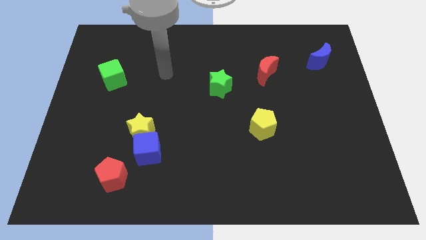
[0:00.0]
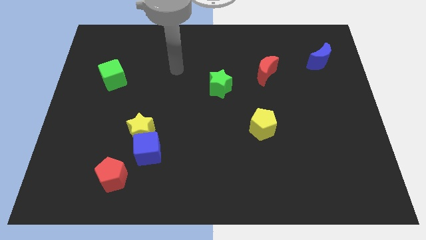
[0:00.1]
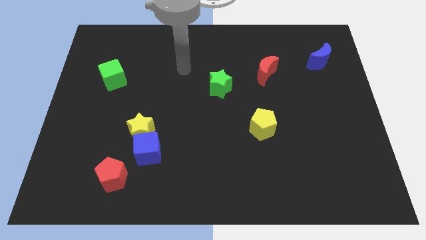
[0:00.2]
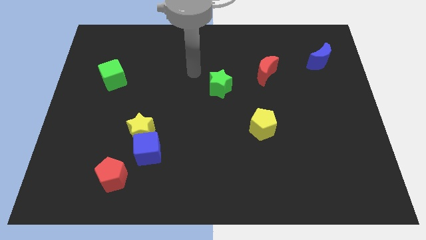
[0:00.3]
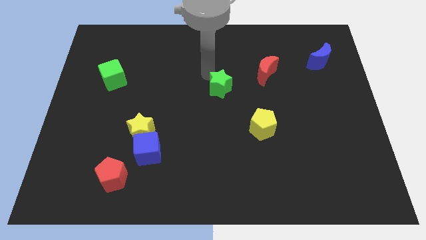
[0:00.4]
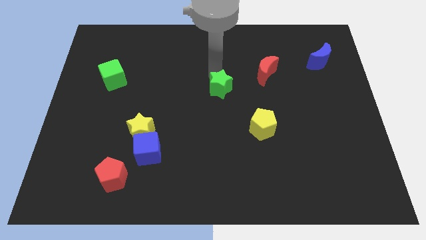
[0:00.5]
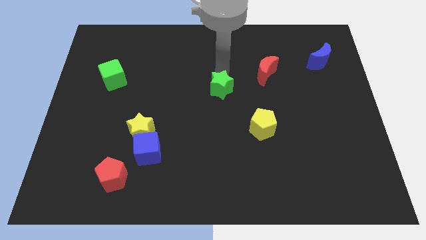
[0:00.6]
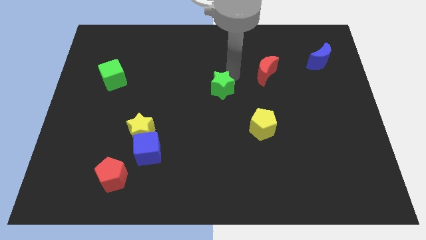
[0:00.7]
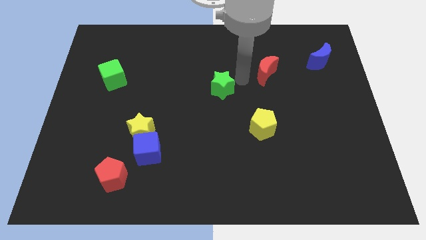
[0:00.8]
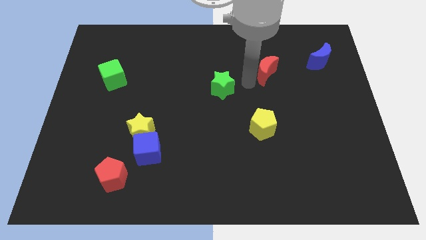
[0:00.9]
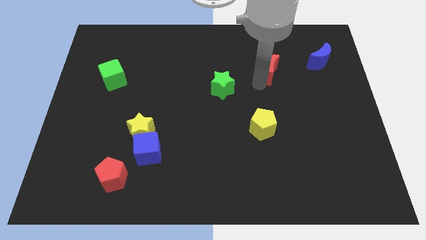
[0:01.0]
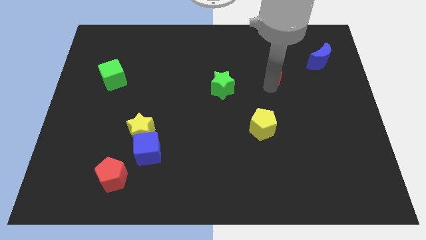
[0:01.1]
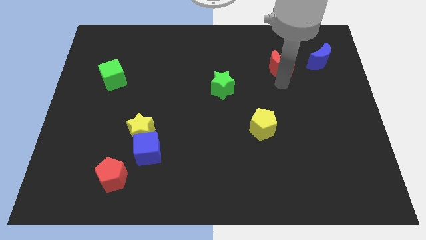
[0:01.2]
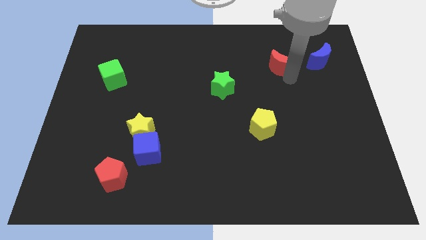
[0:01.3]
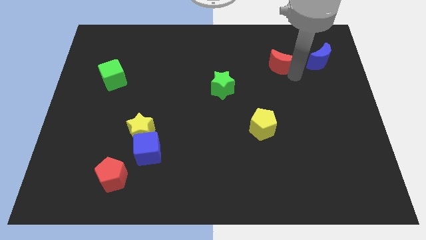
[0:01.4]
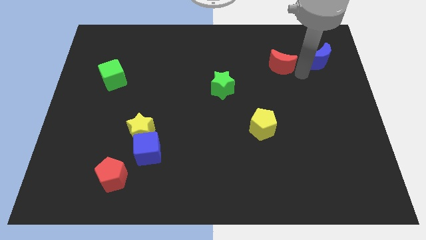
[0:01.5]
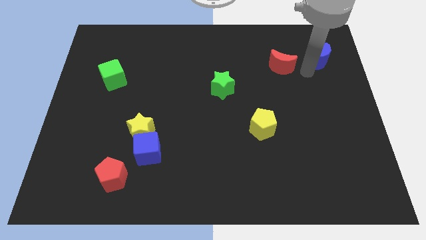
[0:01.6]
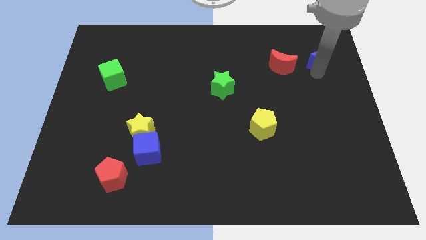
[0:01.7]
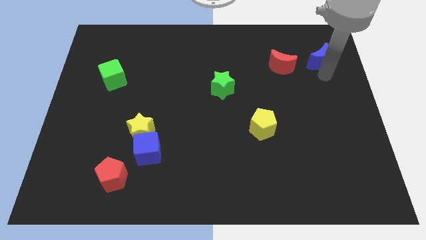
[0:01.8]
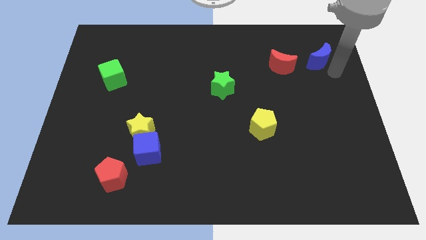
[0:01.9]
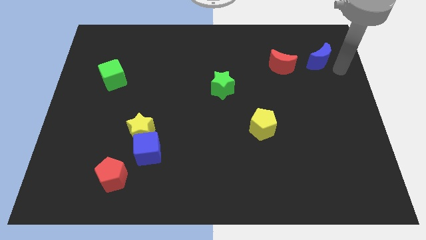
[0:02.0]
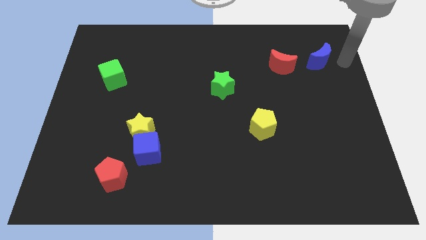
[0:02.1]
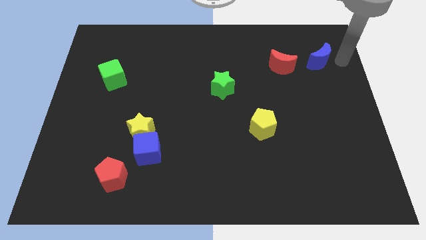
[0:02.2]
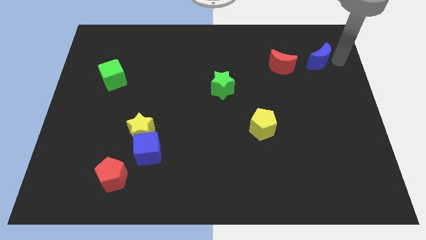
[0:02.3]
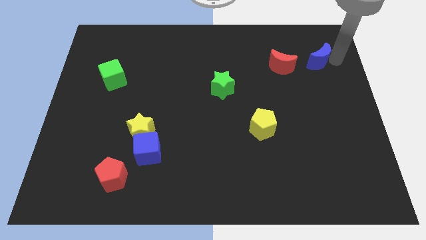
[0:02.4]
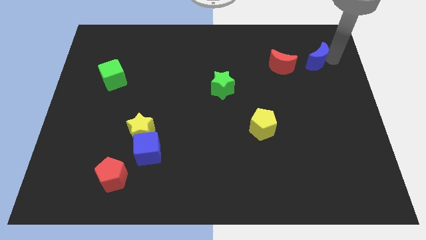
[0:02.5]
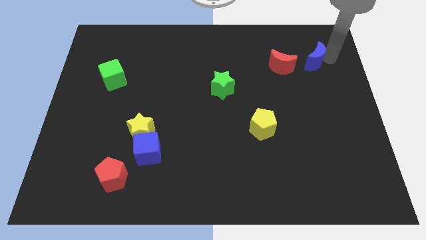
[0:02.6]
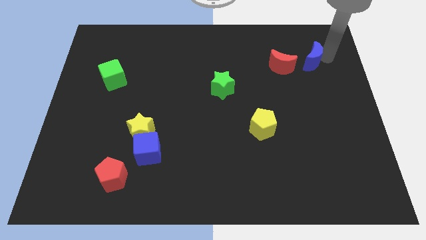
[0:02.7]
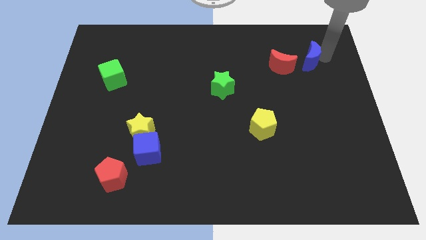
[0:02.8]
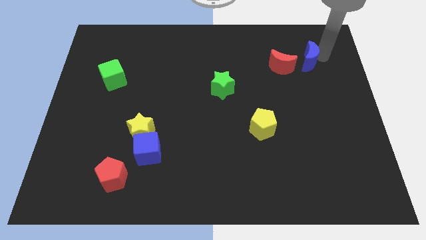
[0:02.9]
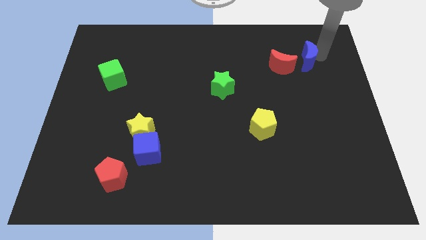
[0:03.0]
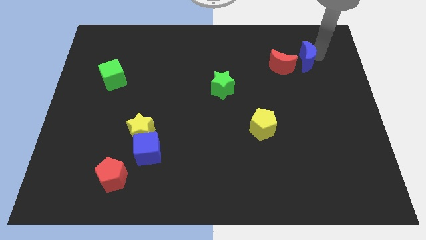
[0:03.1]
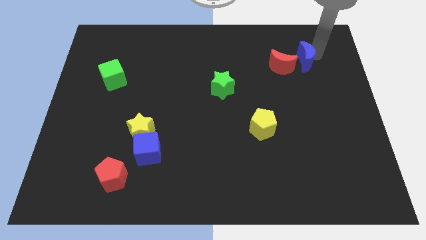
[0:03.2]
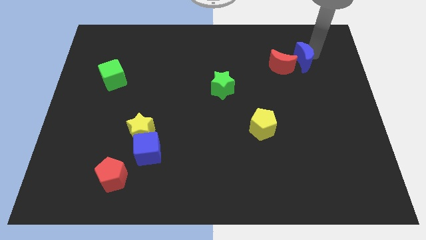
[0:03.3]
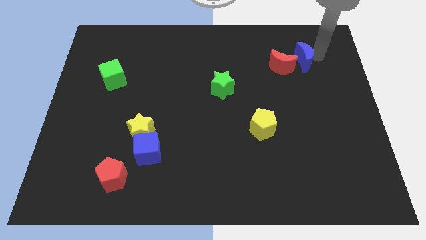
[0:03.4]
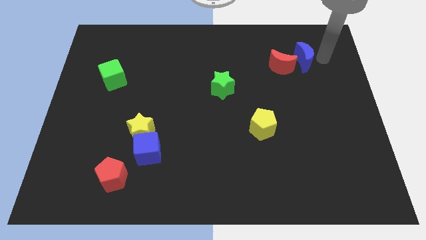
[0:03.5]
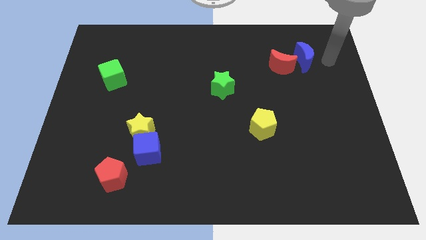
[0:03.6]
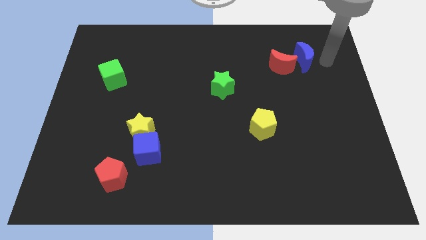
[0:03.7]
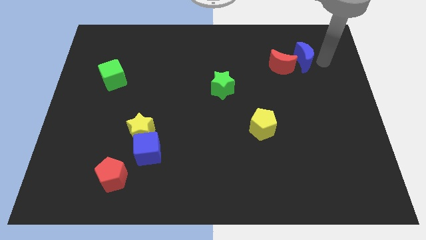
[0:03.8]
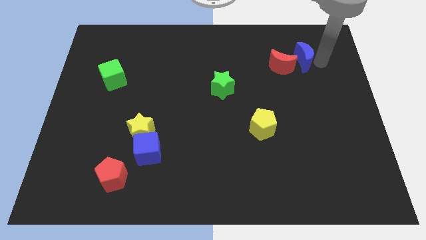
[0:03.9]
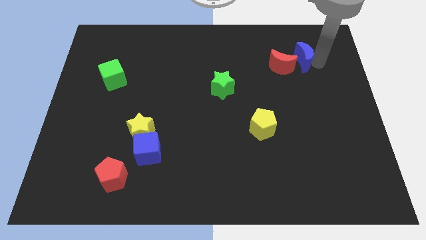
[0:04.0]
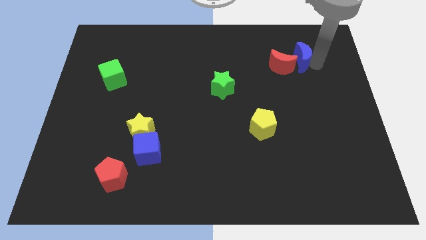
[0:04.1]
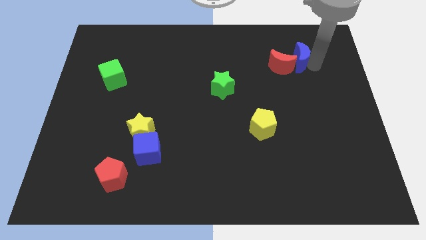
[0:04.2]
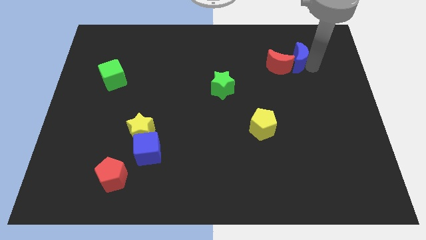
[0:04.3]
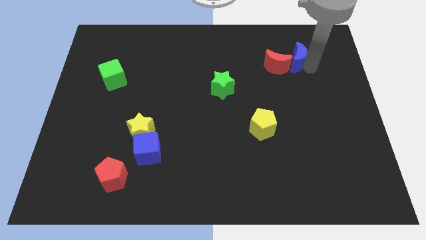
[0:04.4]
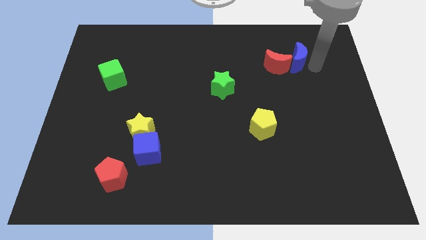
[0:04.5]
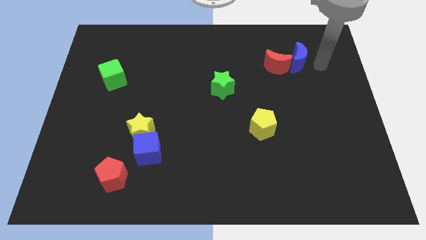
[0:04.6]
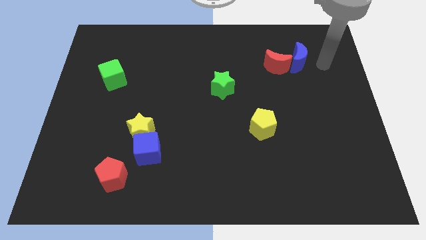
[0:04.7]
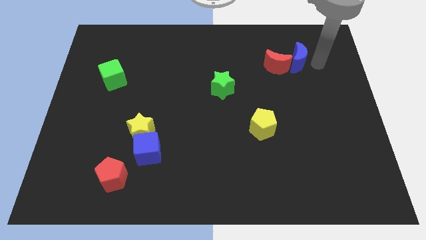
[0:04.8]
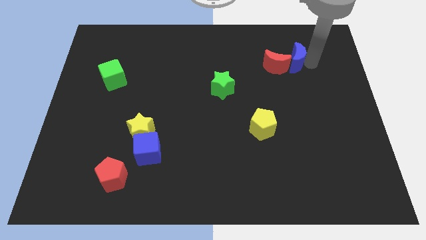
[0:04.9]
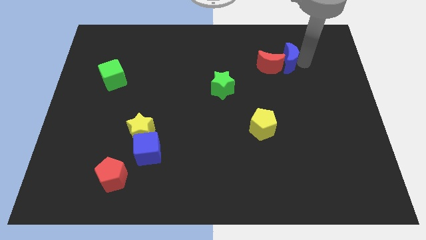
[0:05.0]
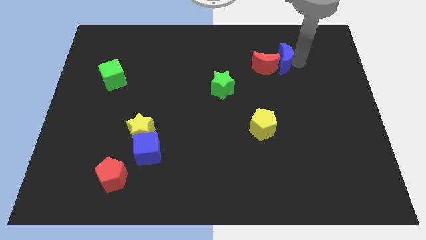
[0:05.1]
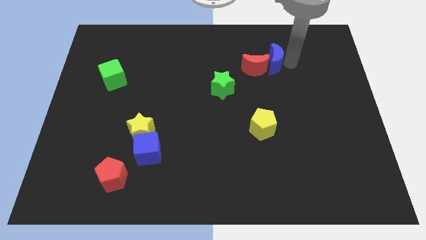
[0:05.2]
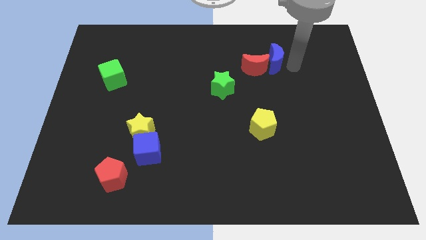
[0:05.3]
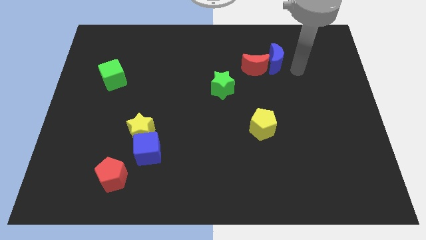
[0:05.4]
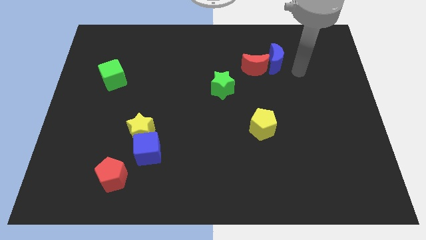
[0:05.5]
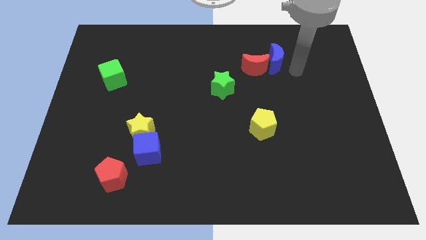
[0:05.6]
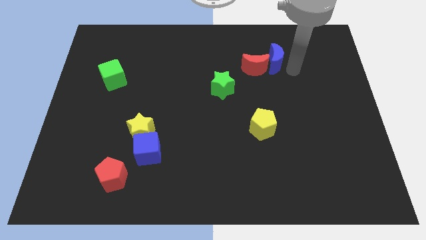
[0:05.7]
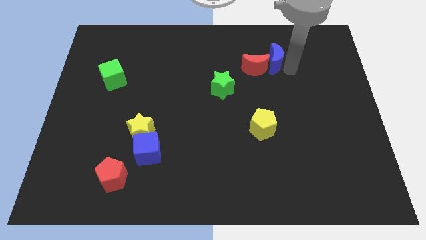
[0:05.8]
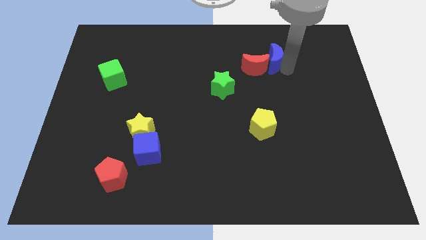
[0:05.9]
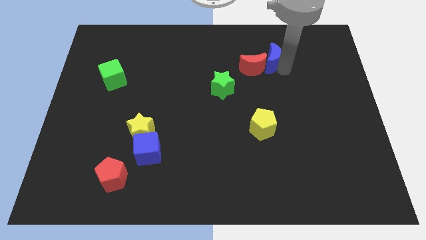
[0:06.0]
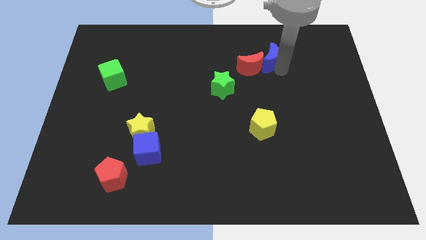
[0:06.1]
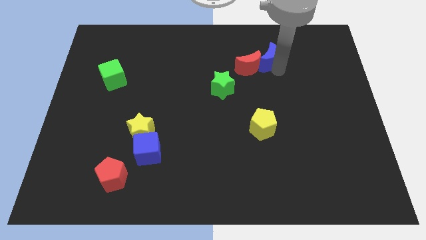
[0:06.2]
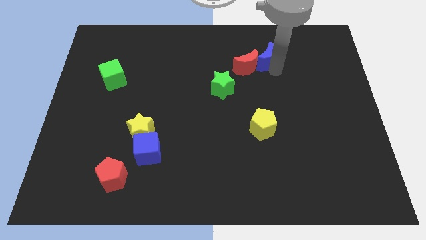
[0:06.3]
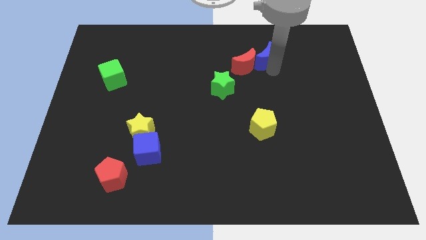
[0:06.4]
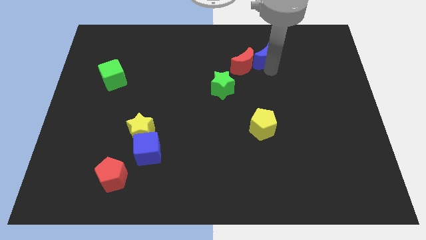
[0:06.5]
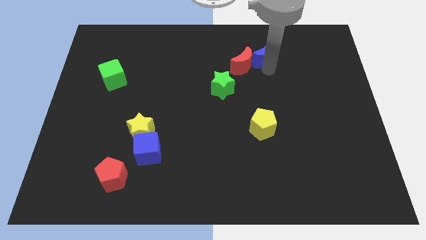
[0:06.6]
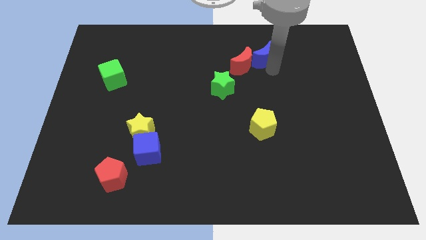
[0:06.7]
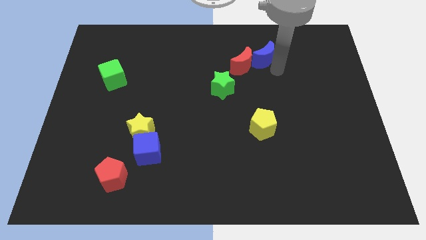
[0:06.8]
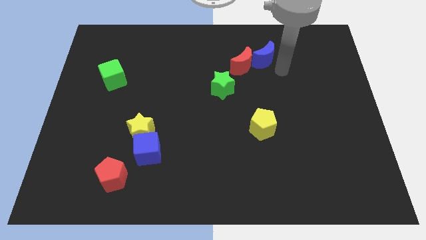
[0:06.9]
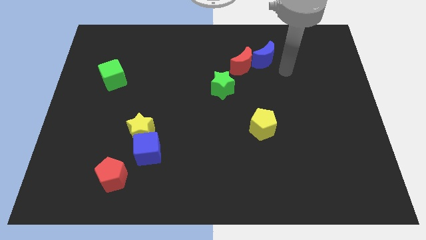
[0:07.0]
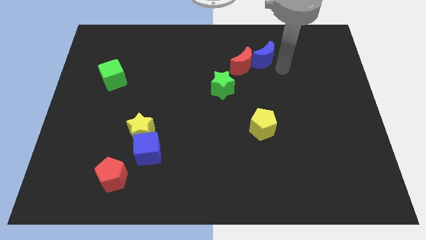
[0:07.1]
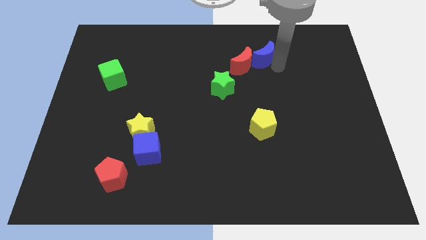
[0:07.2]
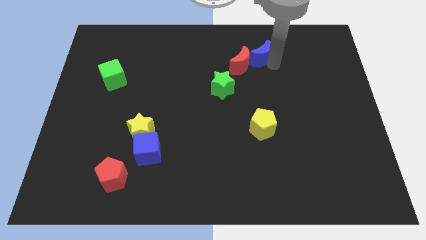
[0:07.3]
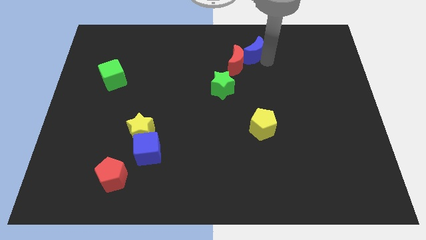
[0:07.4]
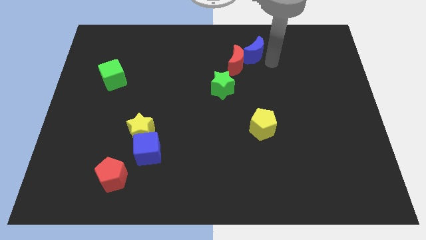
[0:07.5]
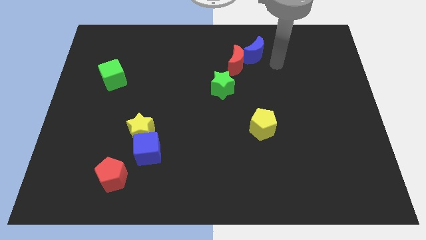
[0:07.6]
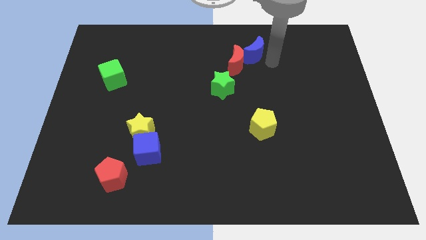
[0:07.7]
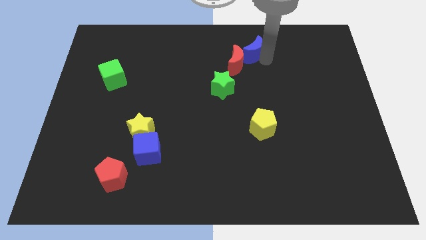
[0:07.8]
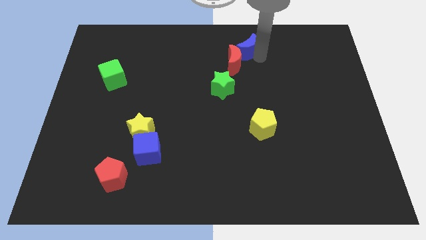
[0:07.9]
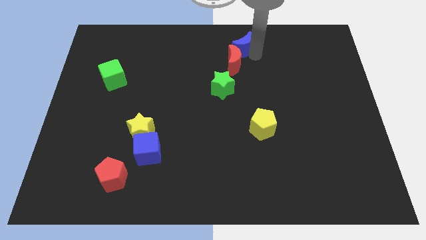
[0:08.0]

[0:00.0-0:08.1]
push the blue moon to the towards your base
